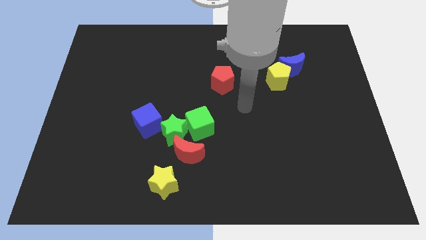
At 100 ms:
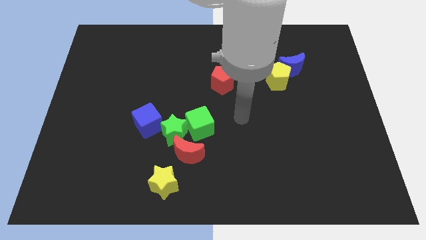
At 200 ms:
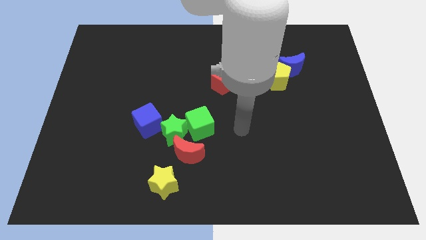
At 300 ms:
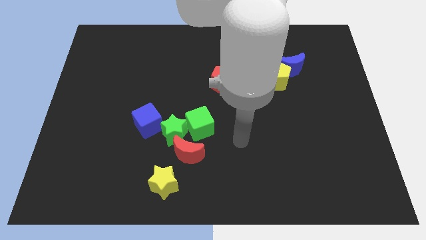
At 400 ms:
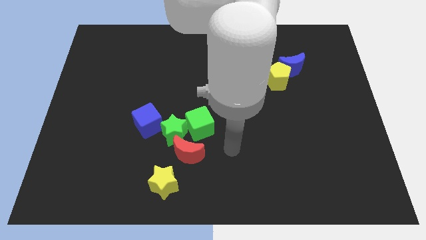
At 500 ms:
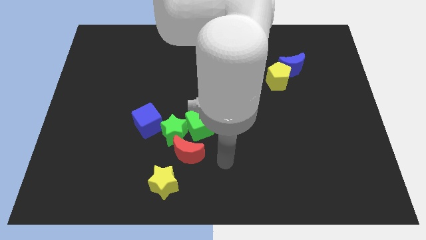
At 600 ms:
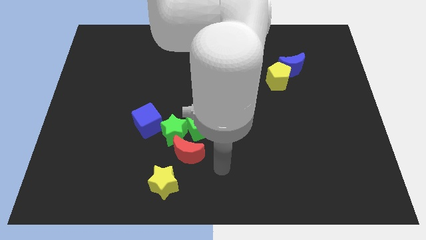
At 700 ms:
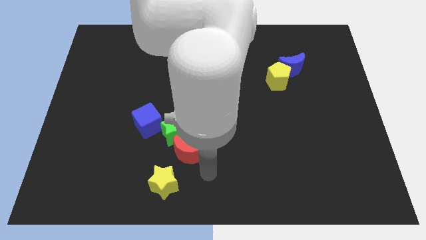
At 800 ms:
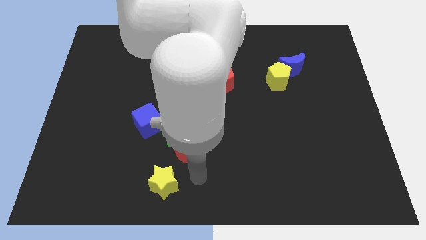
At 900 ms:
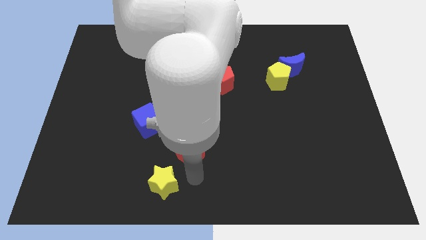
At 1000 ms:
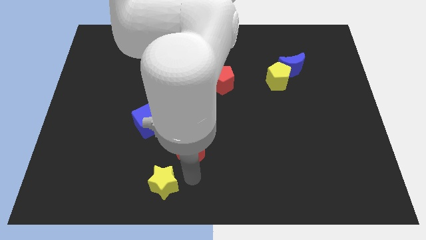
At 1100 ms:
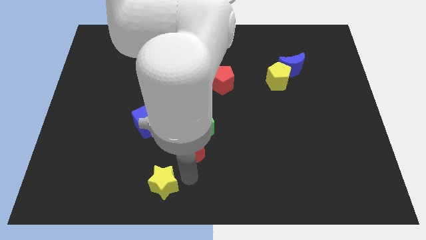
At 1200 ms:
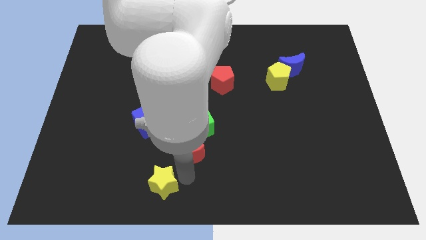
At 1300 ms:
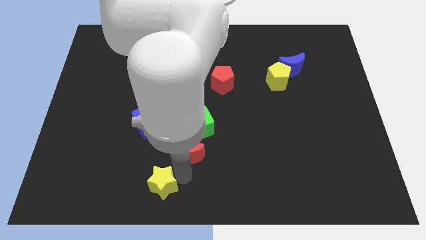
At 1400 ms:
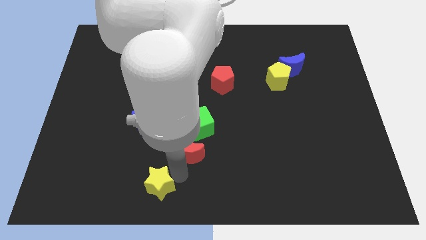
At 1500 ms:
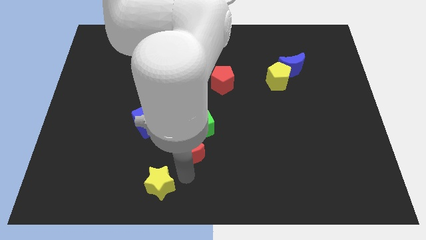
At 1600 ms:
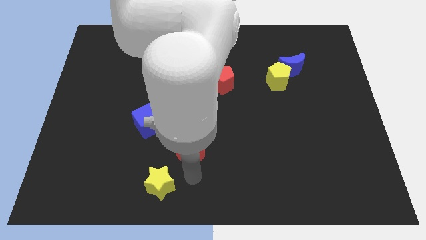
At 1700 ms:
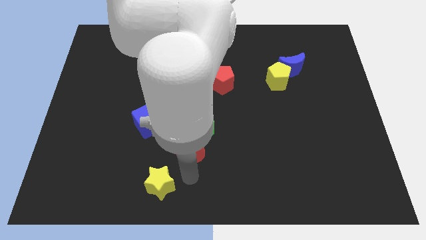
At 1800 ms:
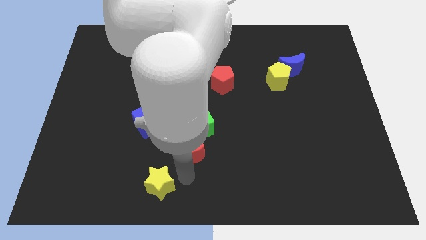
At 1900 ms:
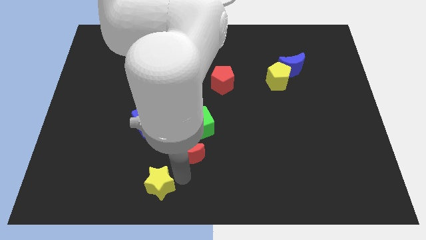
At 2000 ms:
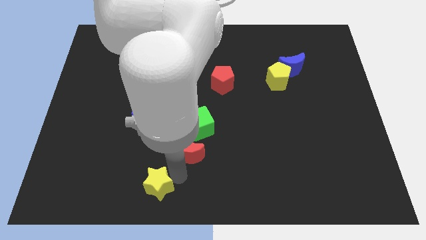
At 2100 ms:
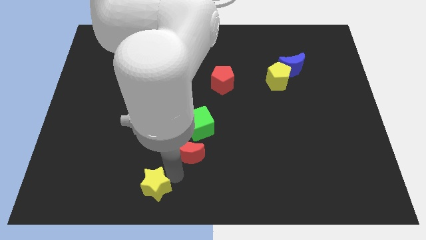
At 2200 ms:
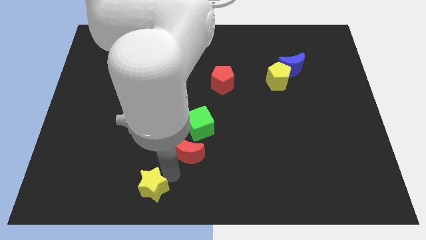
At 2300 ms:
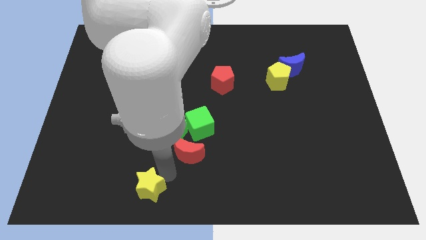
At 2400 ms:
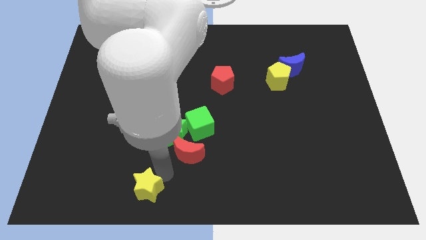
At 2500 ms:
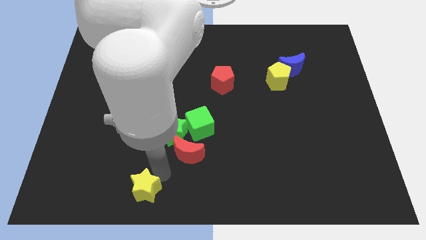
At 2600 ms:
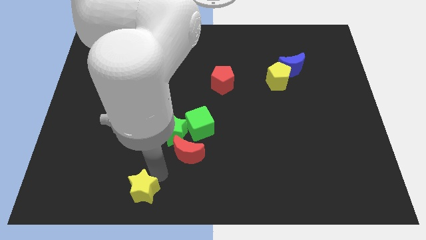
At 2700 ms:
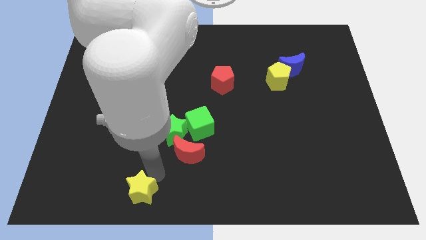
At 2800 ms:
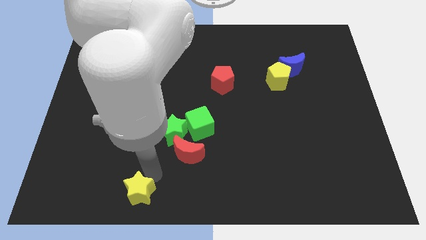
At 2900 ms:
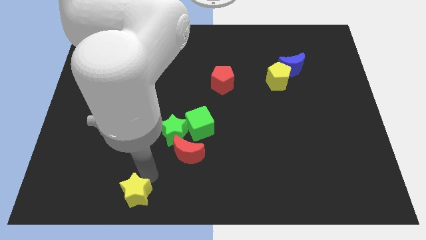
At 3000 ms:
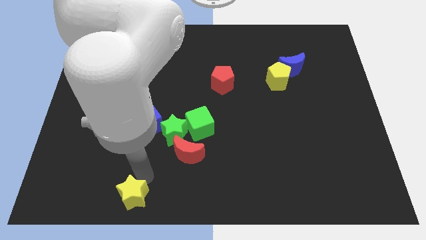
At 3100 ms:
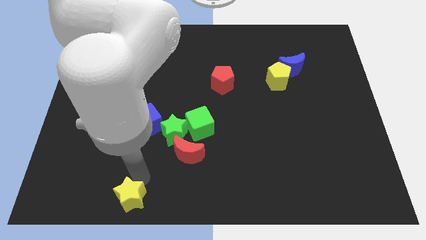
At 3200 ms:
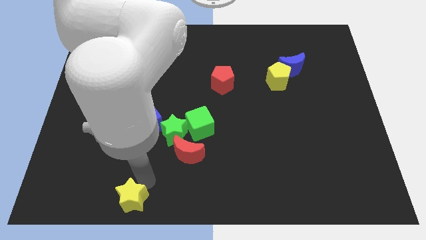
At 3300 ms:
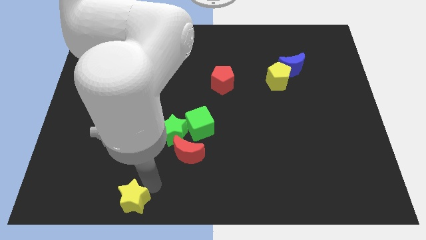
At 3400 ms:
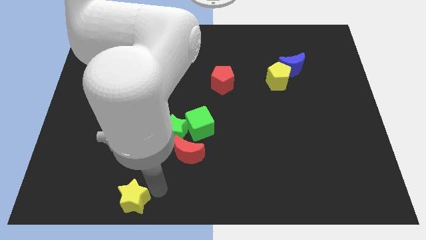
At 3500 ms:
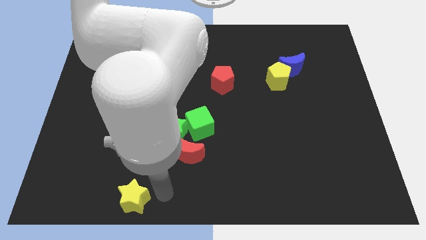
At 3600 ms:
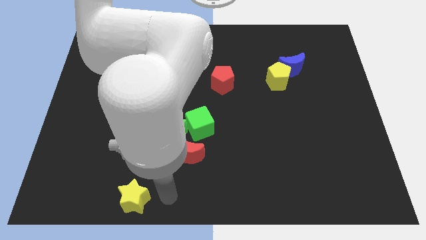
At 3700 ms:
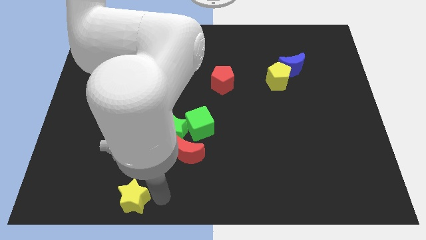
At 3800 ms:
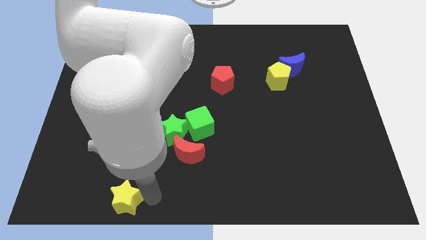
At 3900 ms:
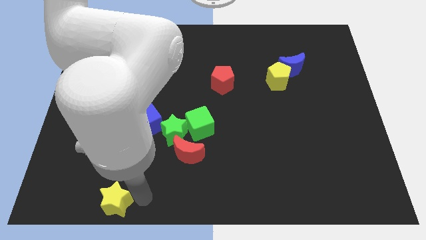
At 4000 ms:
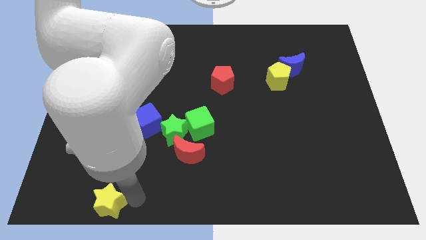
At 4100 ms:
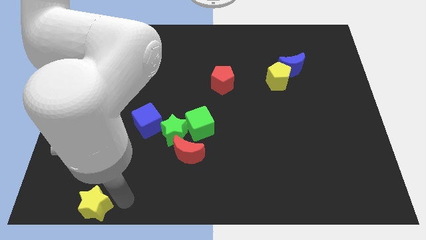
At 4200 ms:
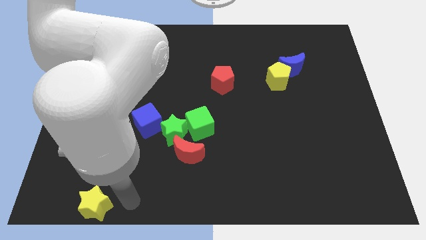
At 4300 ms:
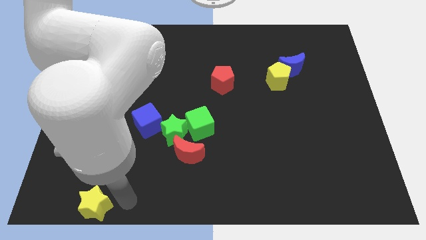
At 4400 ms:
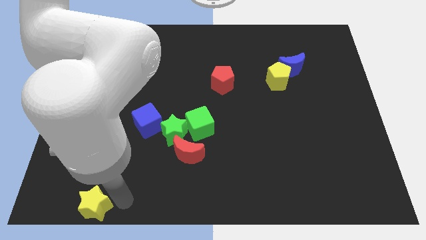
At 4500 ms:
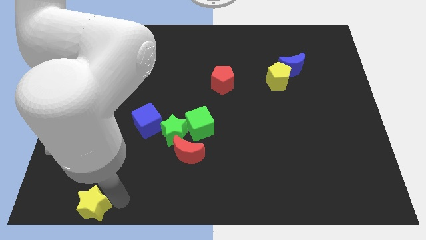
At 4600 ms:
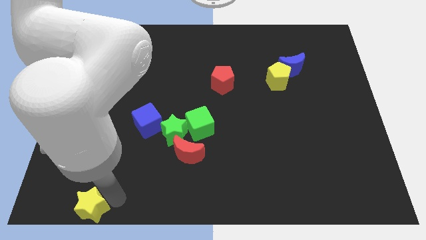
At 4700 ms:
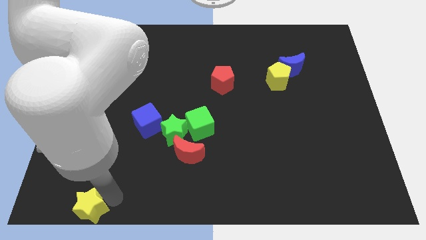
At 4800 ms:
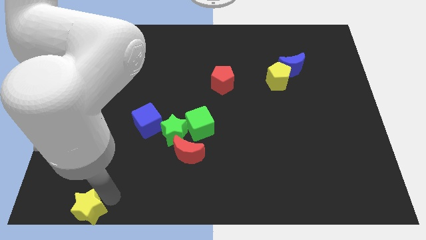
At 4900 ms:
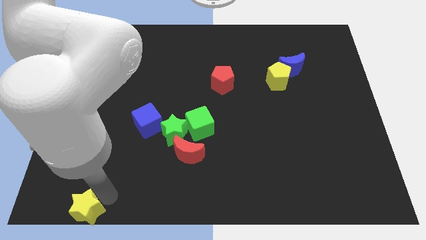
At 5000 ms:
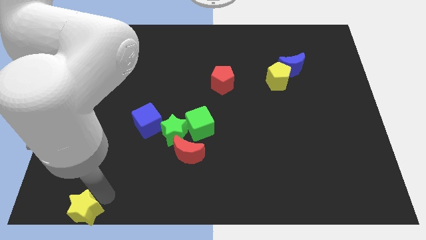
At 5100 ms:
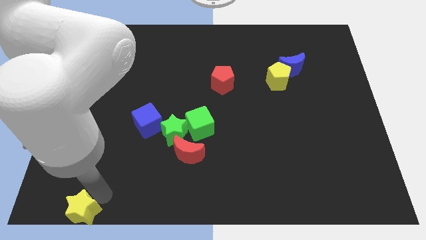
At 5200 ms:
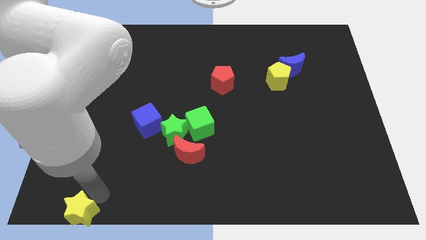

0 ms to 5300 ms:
slide the yellow star to the bottom left

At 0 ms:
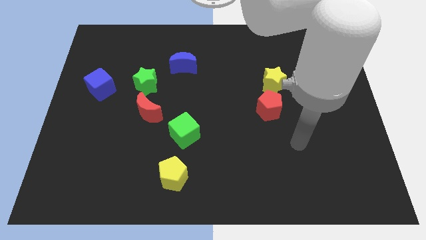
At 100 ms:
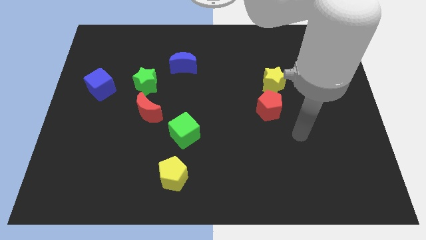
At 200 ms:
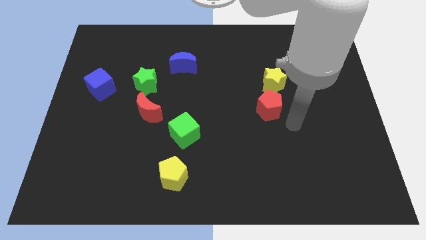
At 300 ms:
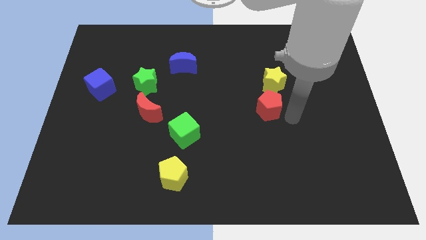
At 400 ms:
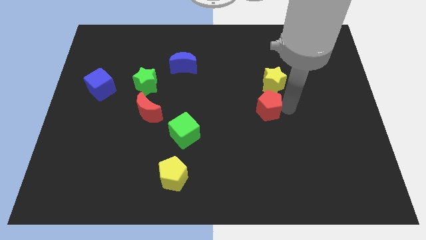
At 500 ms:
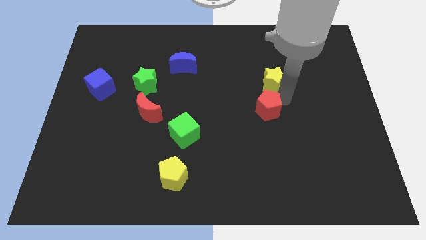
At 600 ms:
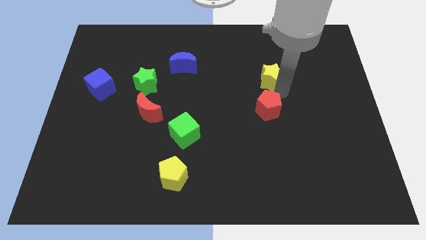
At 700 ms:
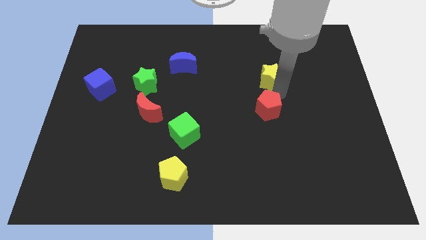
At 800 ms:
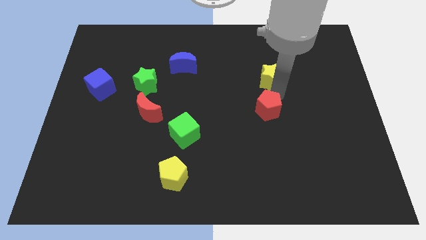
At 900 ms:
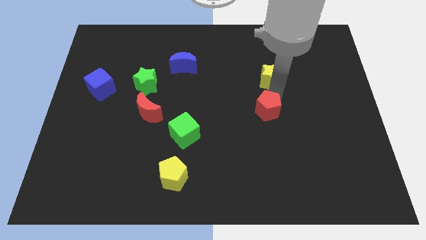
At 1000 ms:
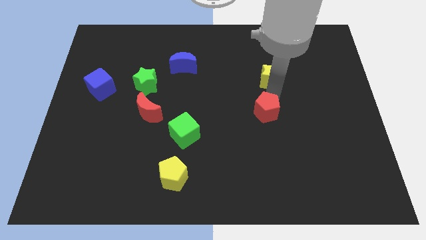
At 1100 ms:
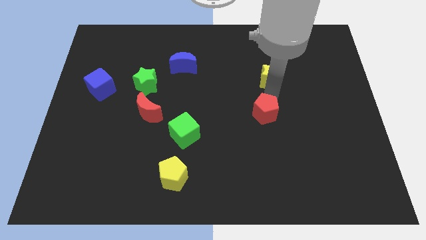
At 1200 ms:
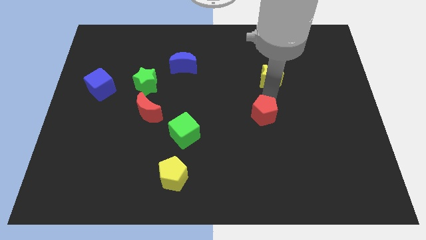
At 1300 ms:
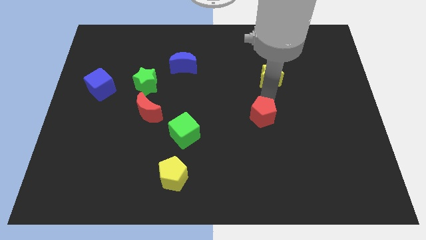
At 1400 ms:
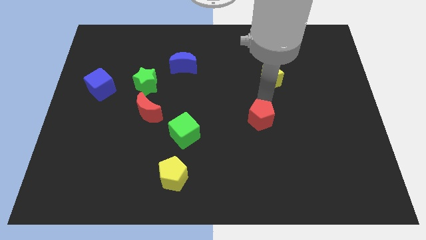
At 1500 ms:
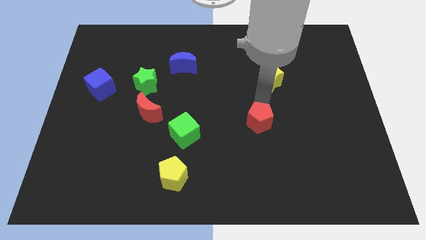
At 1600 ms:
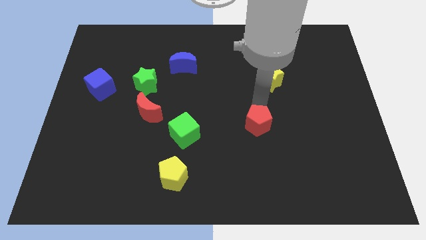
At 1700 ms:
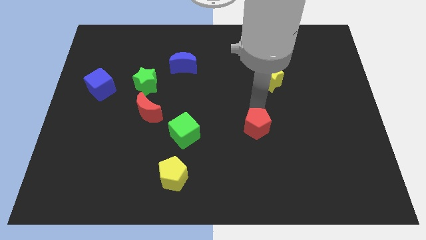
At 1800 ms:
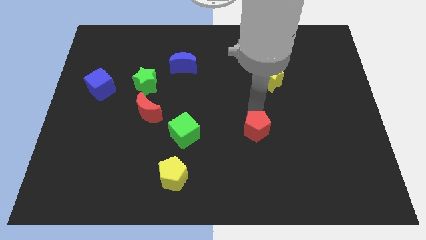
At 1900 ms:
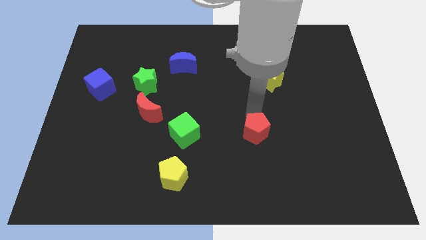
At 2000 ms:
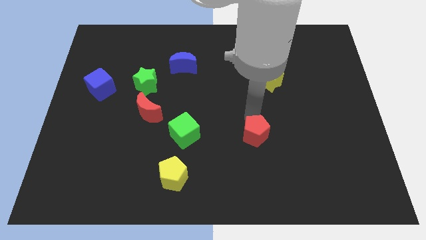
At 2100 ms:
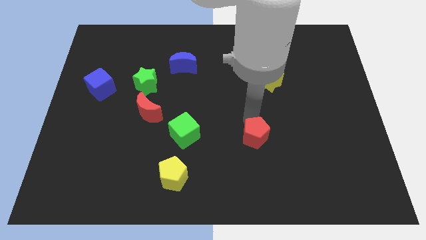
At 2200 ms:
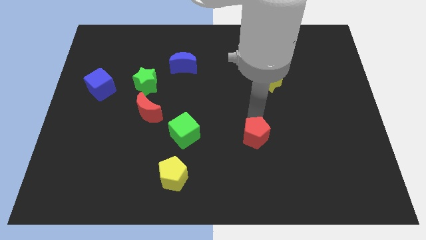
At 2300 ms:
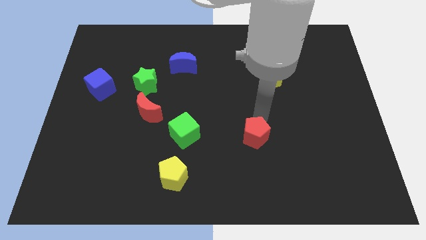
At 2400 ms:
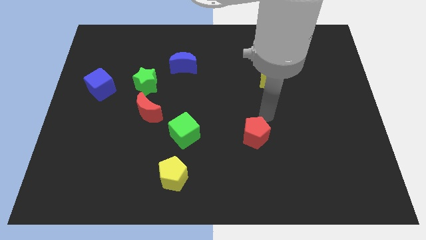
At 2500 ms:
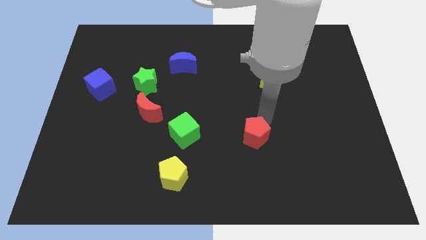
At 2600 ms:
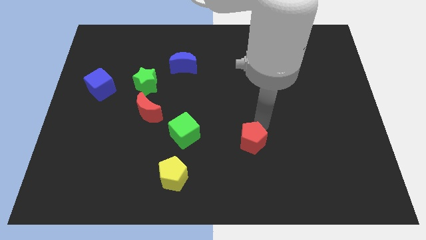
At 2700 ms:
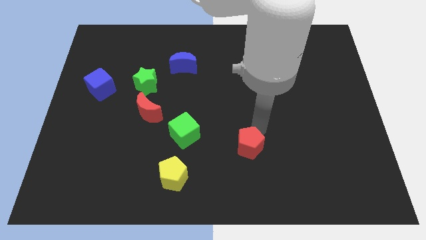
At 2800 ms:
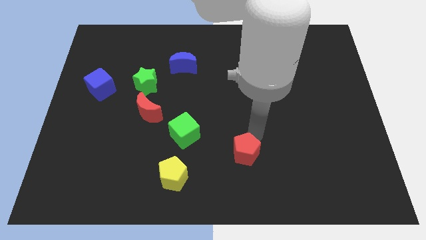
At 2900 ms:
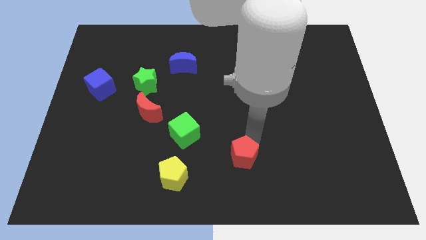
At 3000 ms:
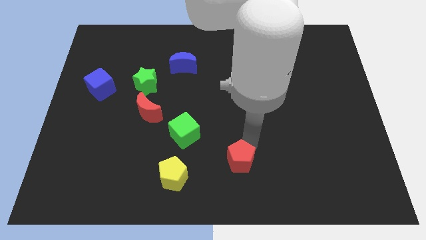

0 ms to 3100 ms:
put the red pentagon to the bottom side
